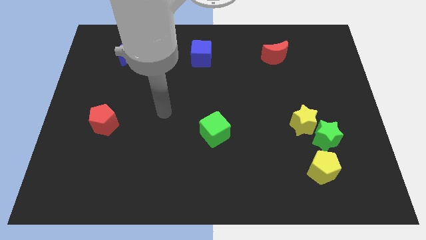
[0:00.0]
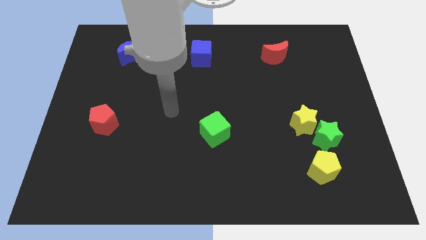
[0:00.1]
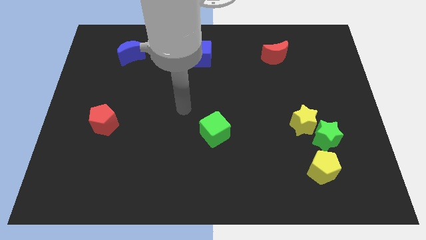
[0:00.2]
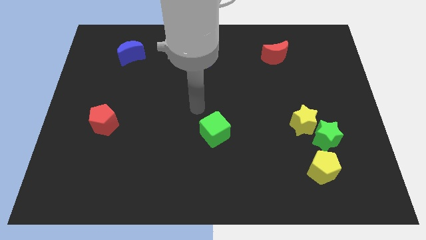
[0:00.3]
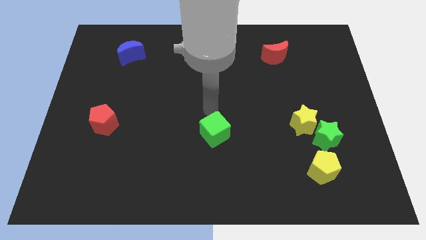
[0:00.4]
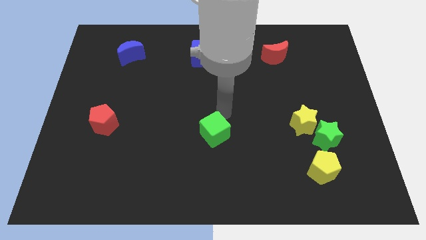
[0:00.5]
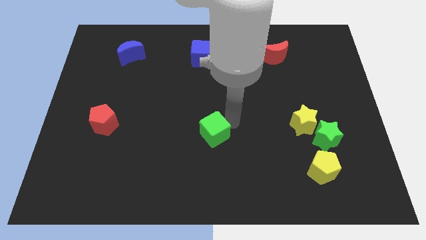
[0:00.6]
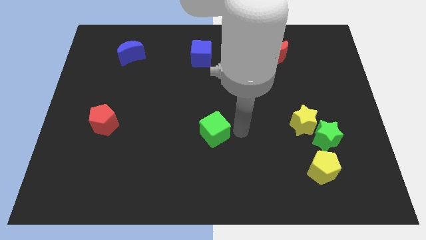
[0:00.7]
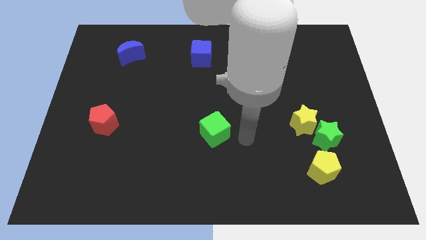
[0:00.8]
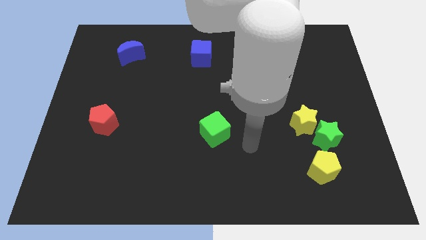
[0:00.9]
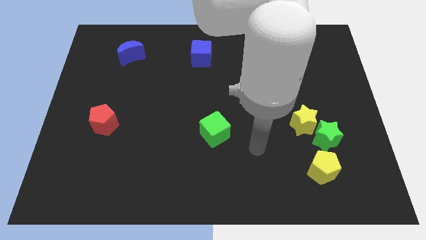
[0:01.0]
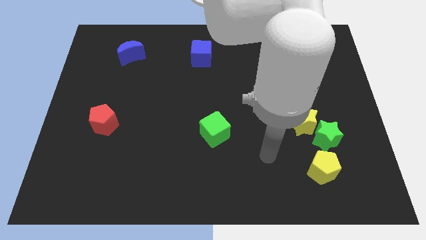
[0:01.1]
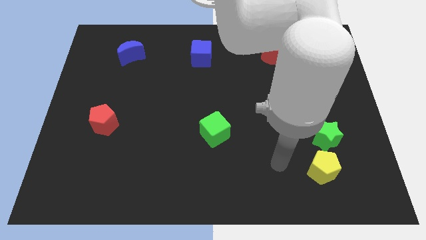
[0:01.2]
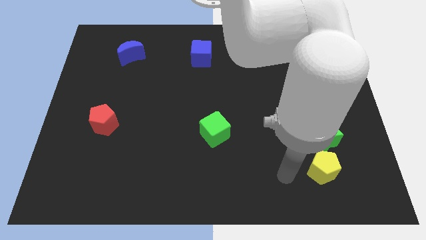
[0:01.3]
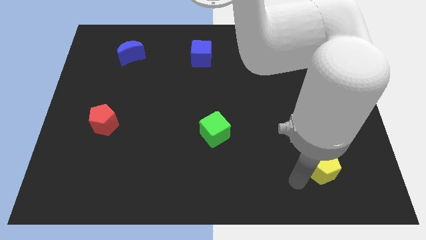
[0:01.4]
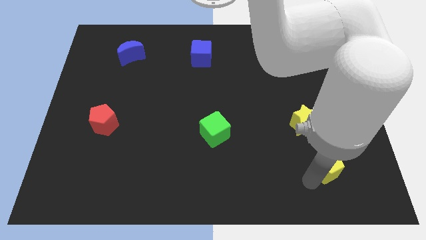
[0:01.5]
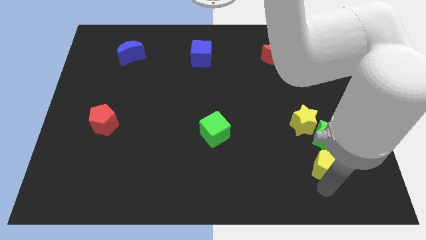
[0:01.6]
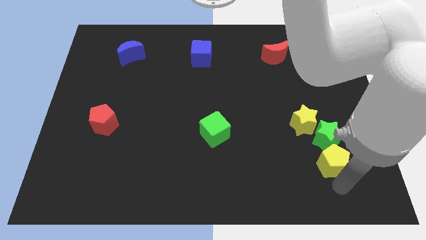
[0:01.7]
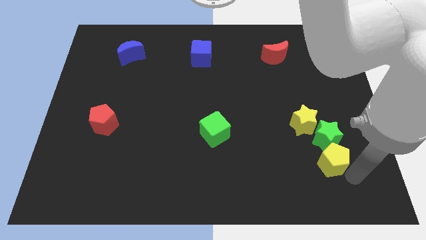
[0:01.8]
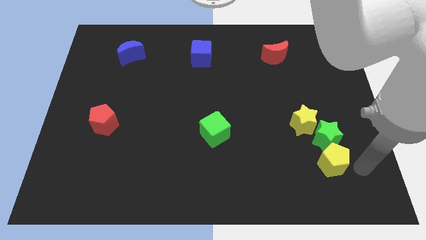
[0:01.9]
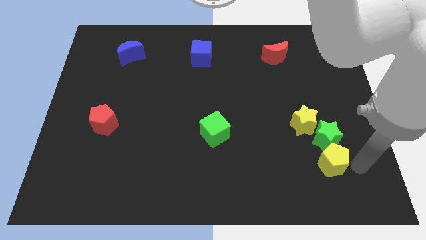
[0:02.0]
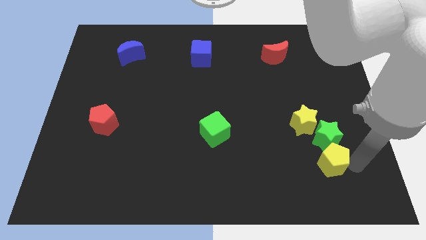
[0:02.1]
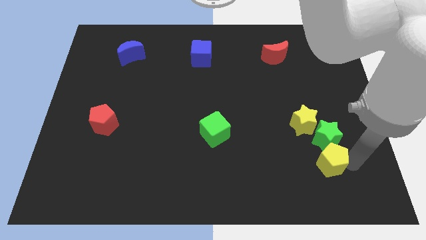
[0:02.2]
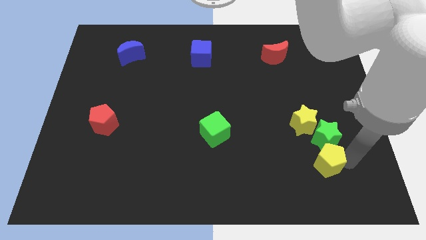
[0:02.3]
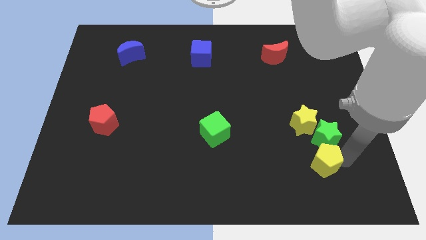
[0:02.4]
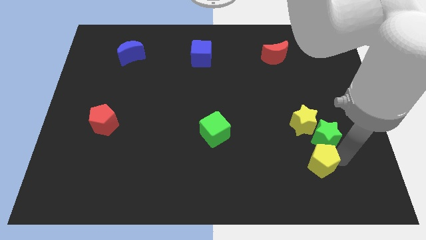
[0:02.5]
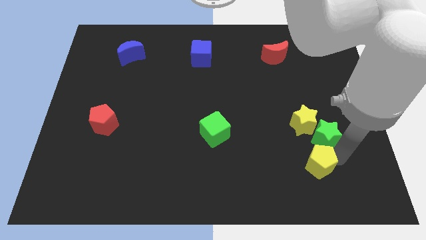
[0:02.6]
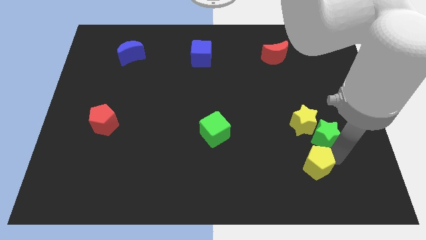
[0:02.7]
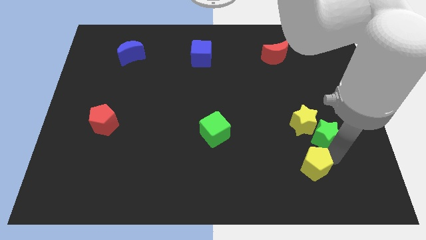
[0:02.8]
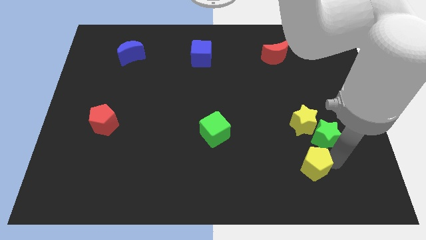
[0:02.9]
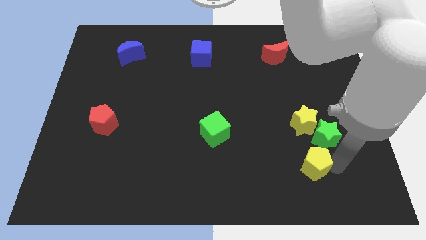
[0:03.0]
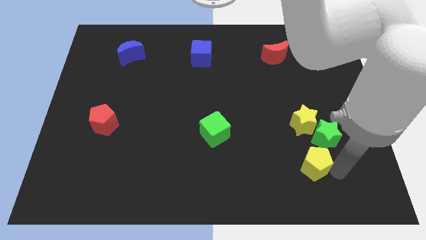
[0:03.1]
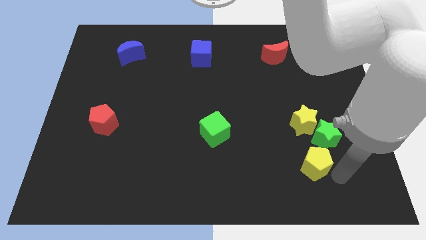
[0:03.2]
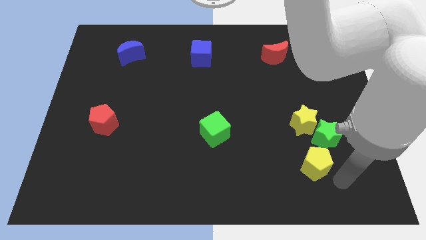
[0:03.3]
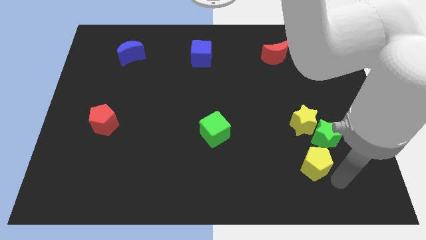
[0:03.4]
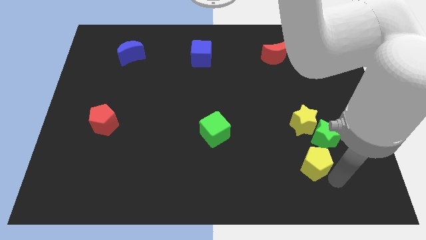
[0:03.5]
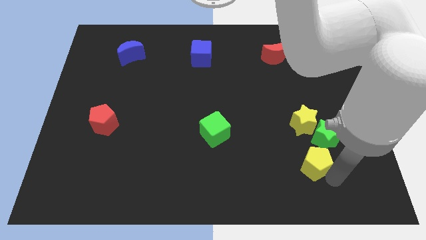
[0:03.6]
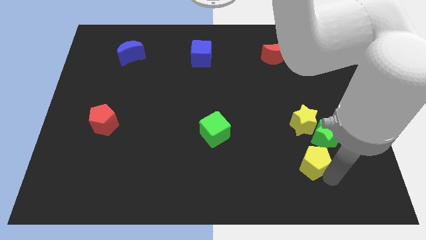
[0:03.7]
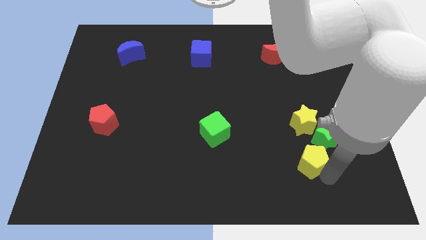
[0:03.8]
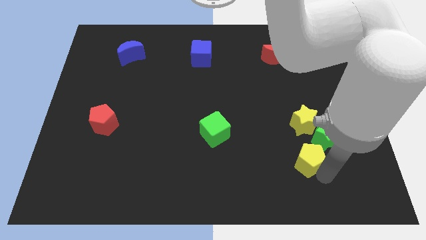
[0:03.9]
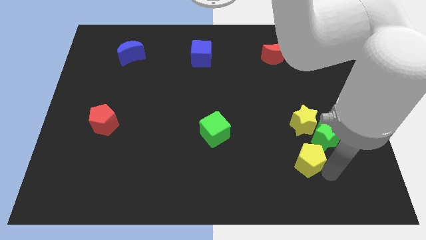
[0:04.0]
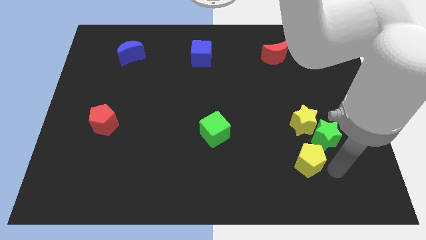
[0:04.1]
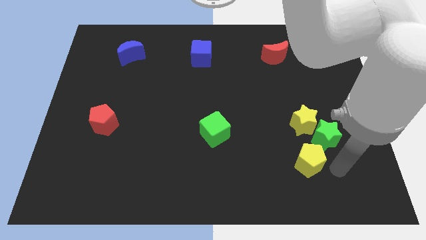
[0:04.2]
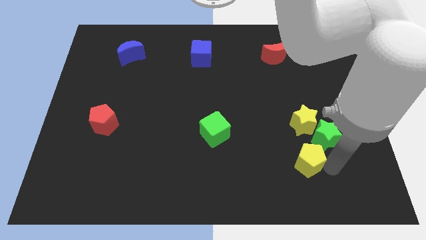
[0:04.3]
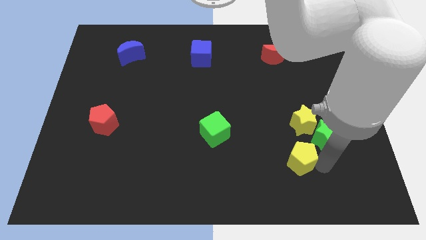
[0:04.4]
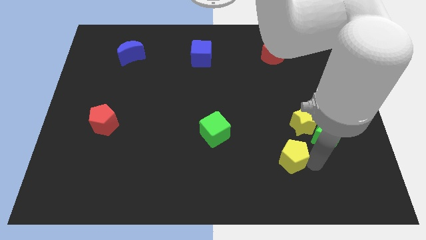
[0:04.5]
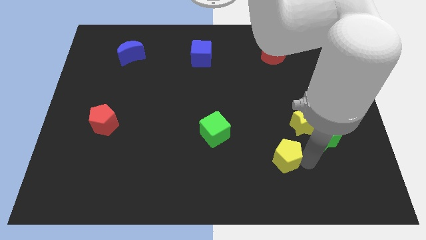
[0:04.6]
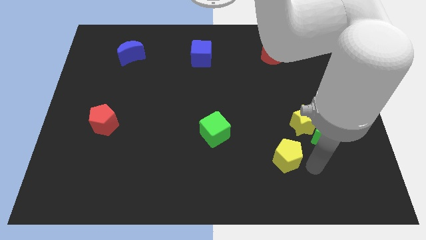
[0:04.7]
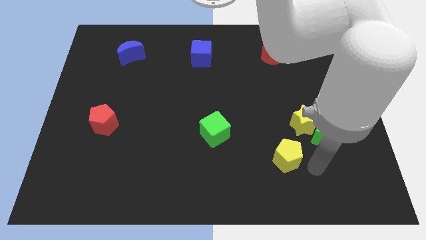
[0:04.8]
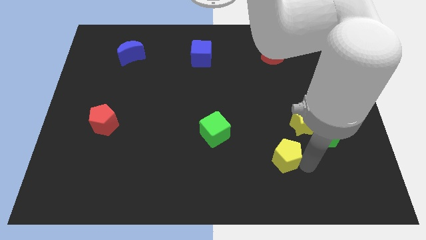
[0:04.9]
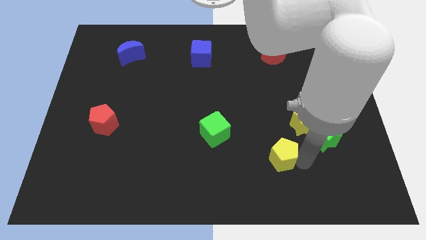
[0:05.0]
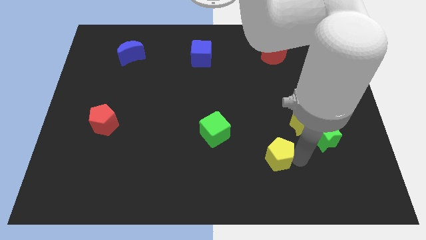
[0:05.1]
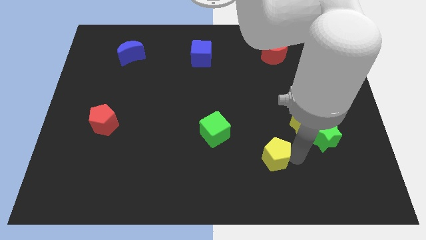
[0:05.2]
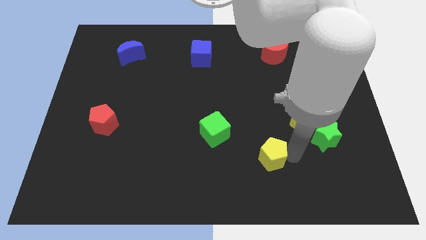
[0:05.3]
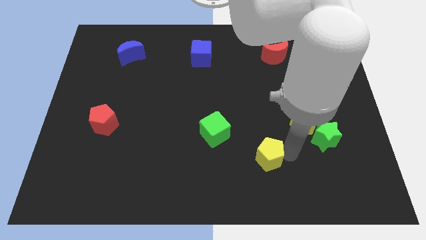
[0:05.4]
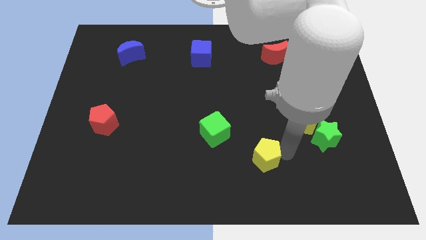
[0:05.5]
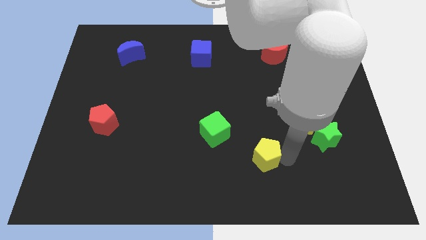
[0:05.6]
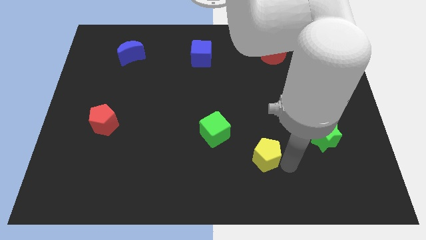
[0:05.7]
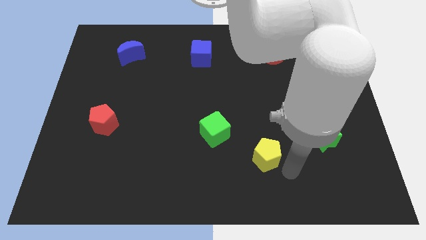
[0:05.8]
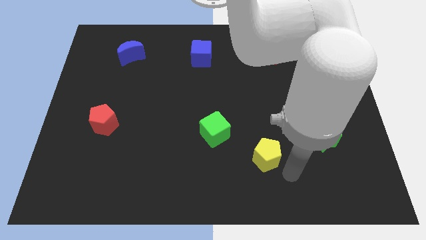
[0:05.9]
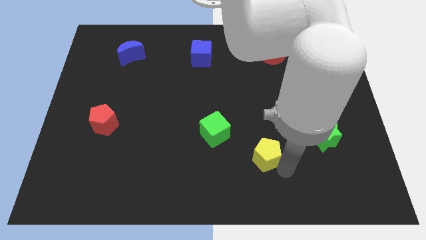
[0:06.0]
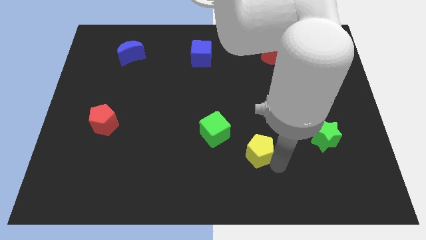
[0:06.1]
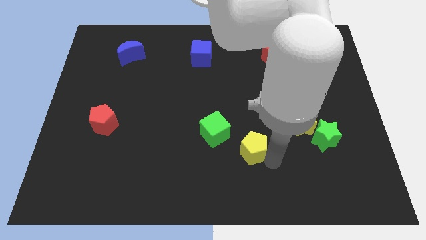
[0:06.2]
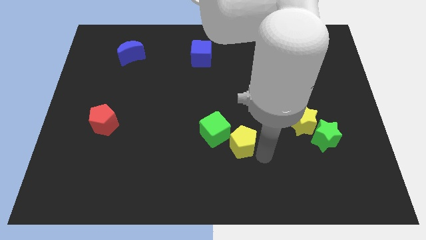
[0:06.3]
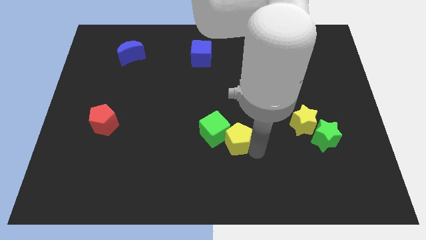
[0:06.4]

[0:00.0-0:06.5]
push the yellow pentagon next to the green cube
